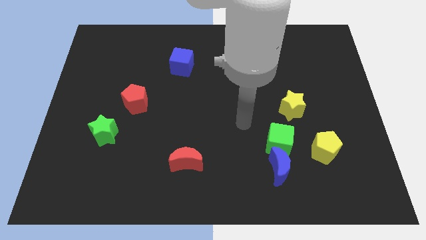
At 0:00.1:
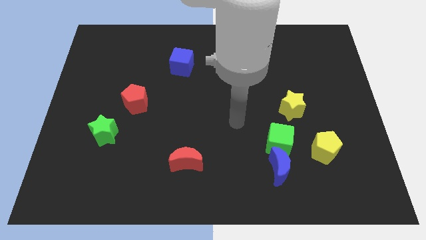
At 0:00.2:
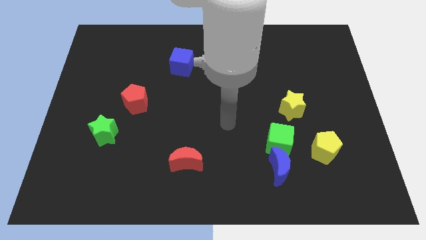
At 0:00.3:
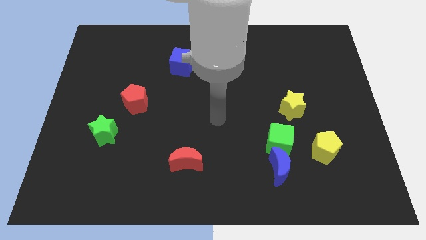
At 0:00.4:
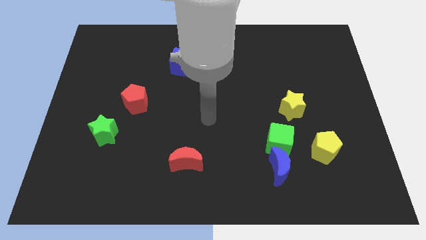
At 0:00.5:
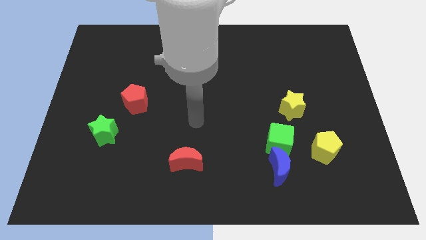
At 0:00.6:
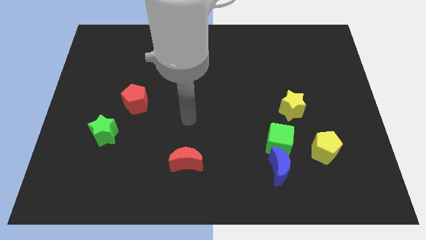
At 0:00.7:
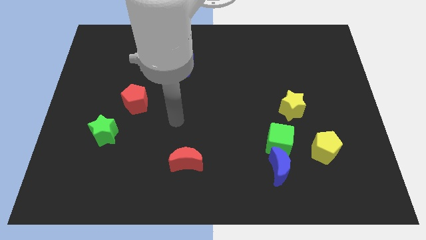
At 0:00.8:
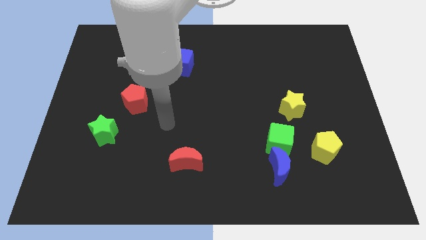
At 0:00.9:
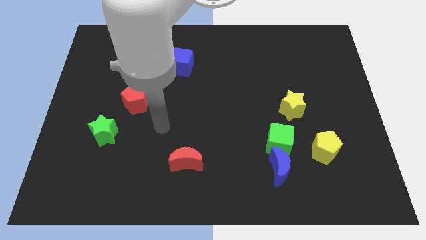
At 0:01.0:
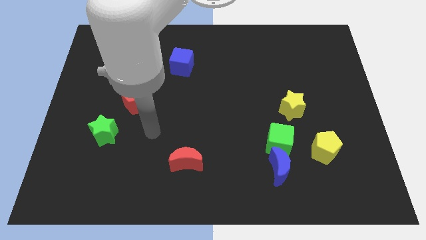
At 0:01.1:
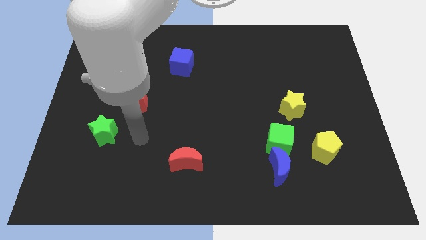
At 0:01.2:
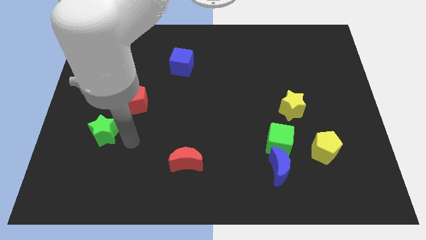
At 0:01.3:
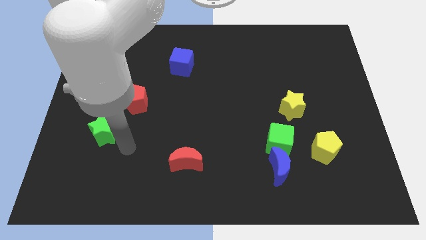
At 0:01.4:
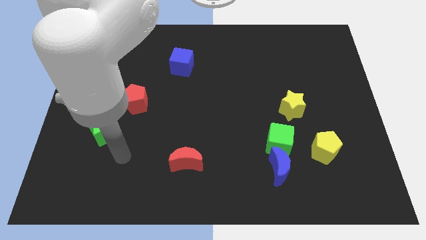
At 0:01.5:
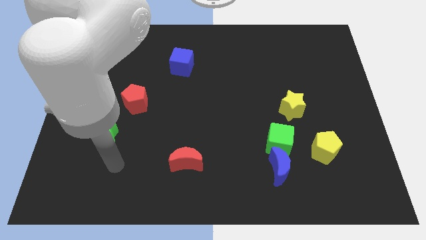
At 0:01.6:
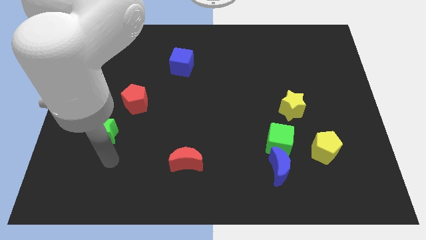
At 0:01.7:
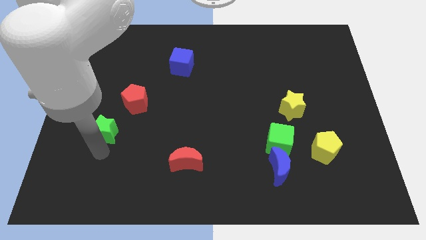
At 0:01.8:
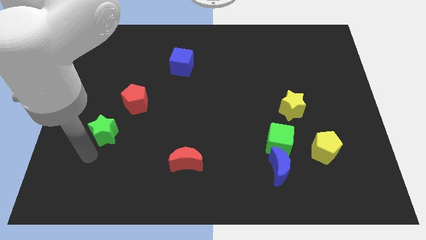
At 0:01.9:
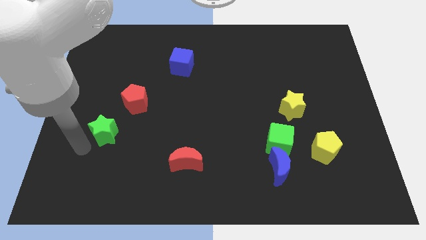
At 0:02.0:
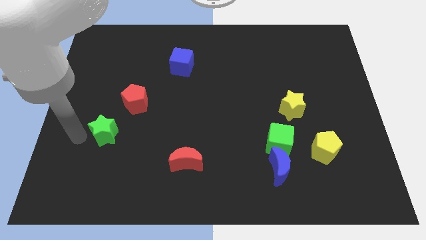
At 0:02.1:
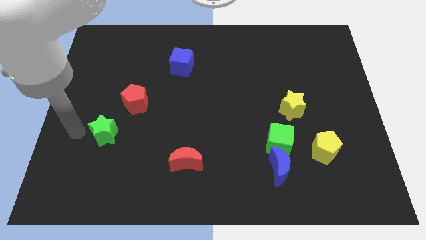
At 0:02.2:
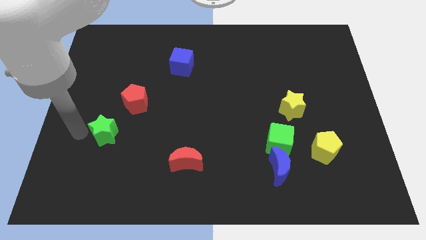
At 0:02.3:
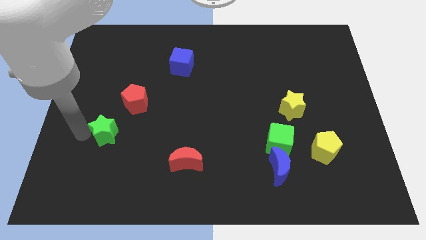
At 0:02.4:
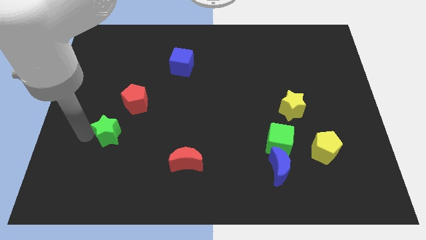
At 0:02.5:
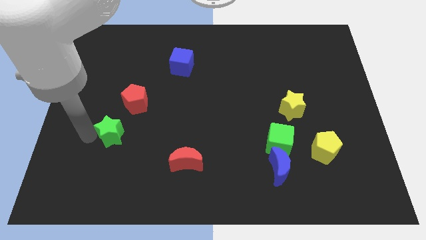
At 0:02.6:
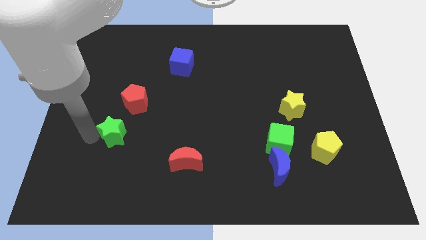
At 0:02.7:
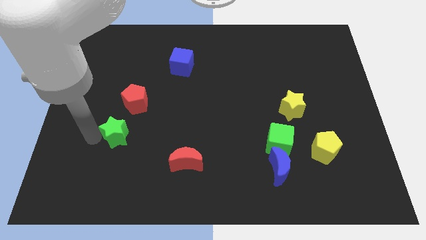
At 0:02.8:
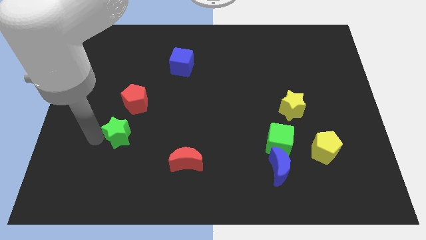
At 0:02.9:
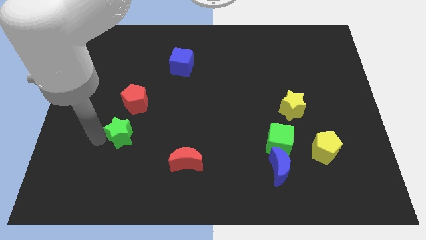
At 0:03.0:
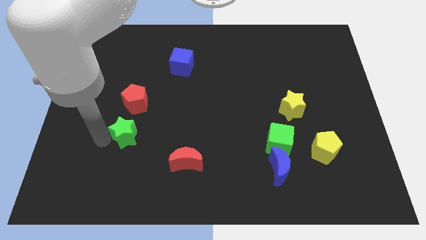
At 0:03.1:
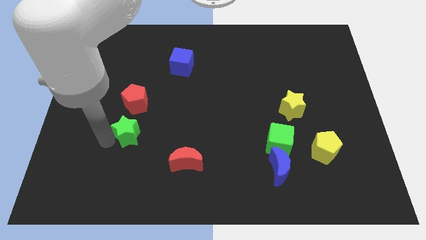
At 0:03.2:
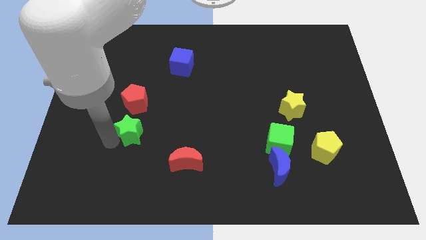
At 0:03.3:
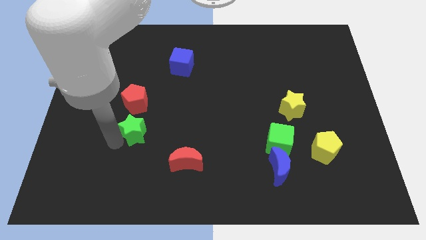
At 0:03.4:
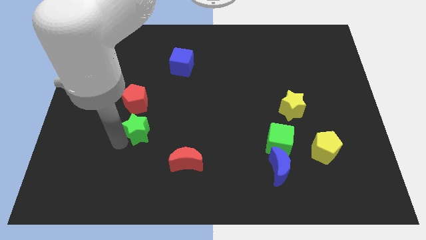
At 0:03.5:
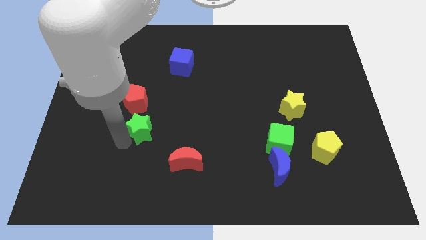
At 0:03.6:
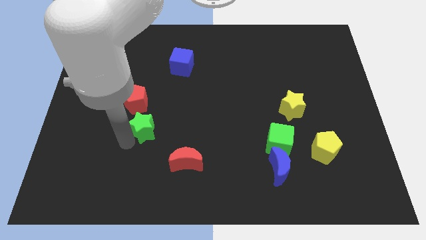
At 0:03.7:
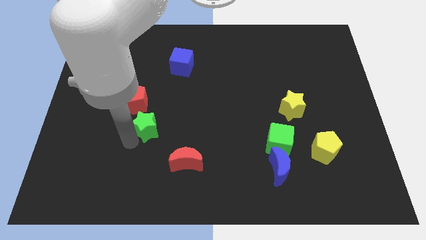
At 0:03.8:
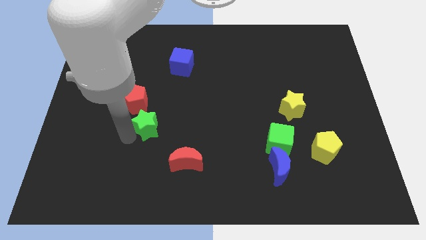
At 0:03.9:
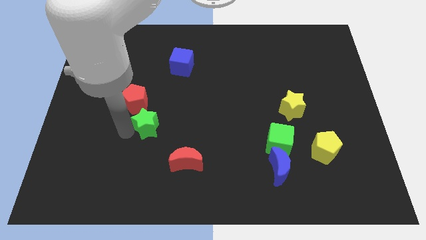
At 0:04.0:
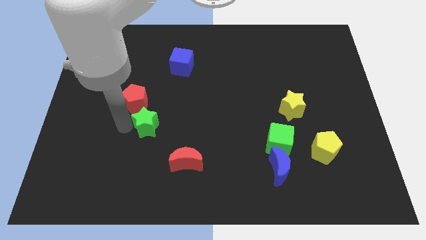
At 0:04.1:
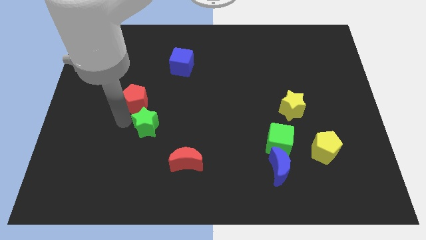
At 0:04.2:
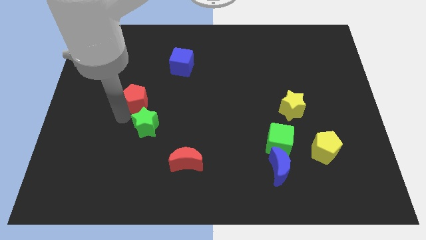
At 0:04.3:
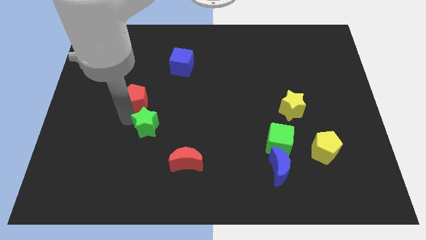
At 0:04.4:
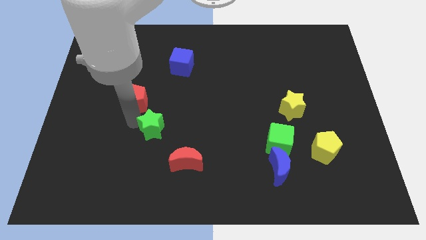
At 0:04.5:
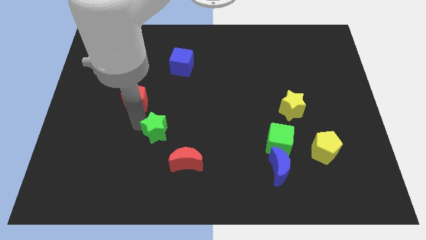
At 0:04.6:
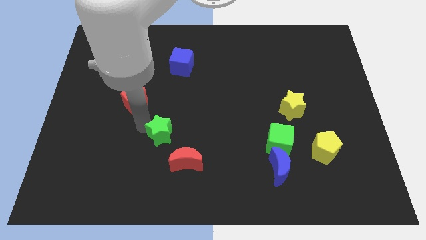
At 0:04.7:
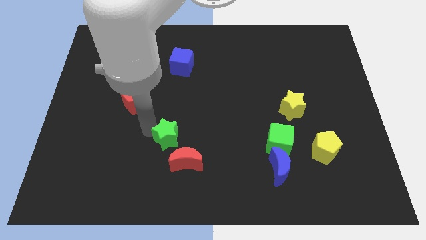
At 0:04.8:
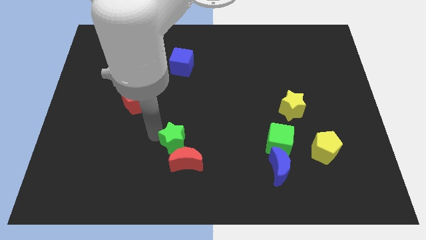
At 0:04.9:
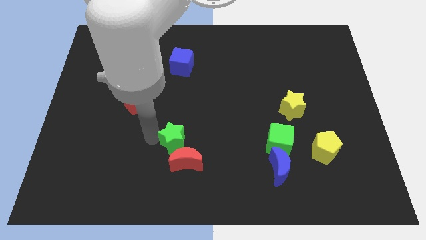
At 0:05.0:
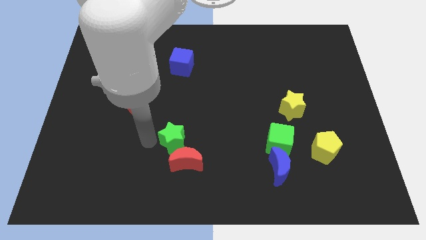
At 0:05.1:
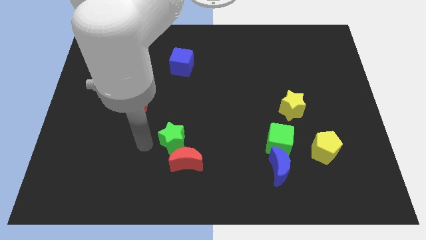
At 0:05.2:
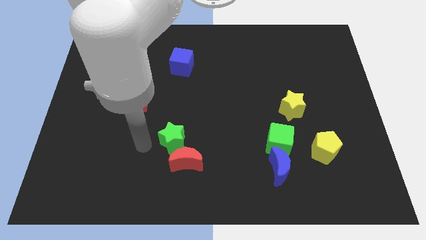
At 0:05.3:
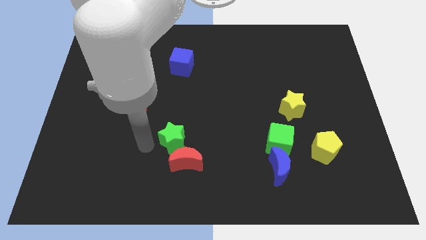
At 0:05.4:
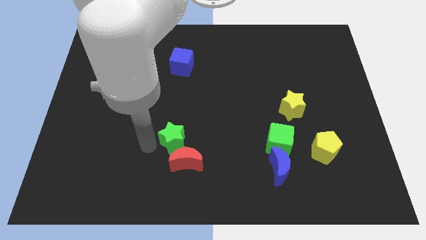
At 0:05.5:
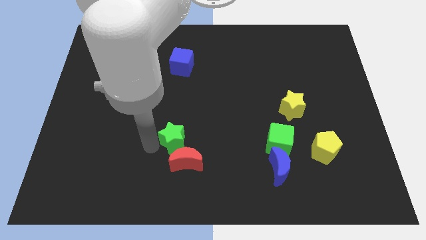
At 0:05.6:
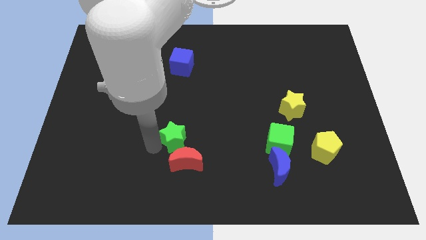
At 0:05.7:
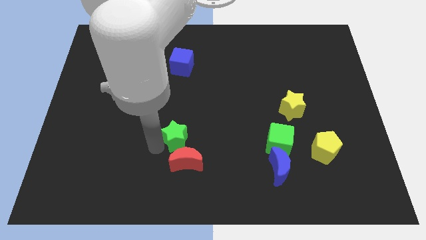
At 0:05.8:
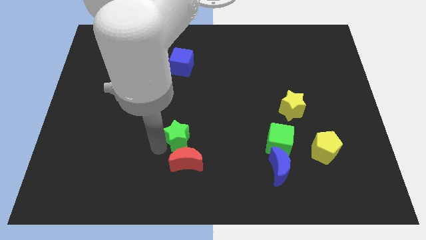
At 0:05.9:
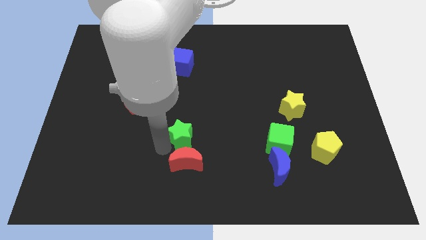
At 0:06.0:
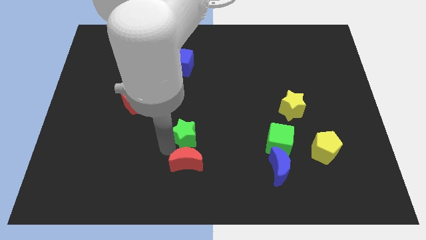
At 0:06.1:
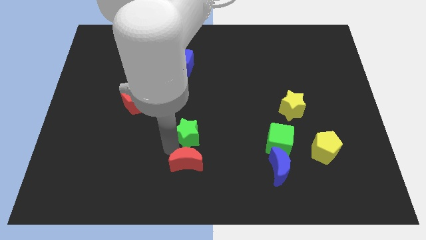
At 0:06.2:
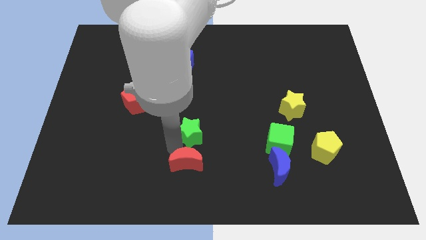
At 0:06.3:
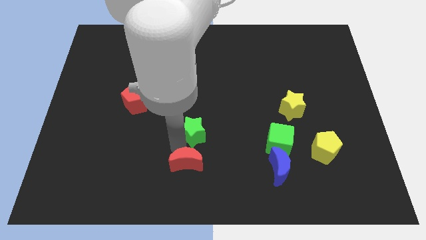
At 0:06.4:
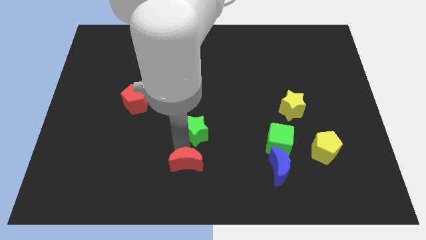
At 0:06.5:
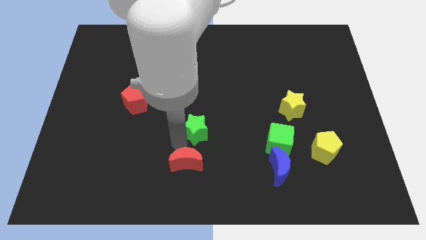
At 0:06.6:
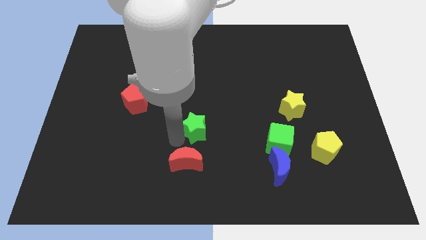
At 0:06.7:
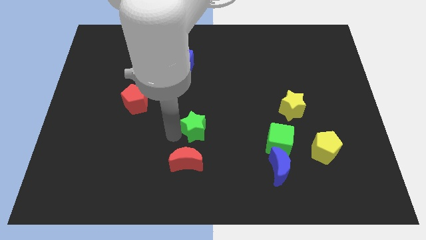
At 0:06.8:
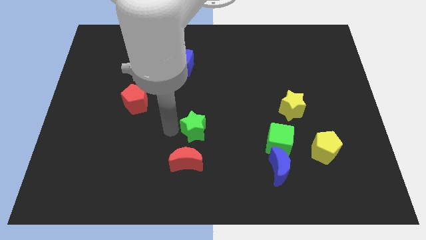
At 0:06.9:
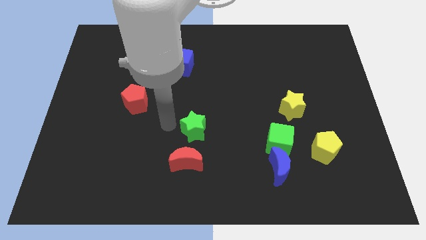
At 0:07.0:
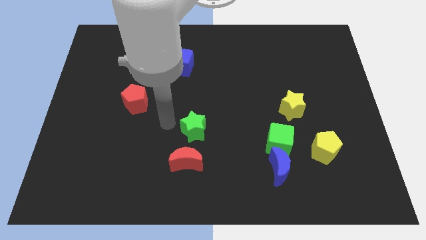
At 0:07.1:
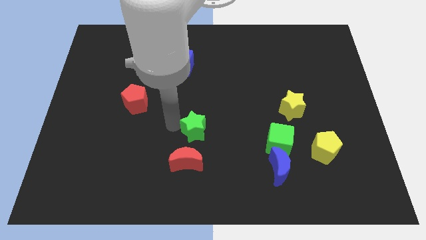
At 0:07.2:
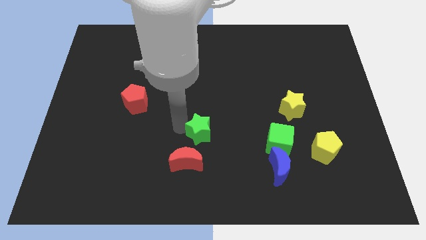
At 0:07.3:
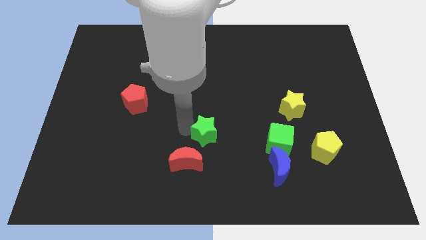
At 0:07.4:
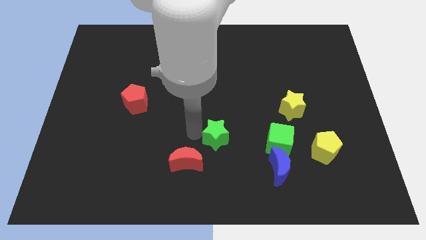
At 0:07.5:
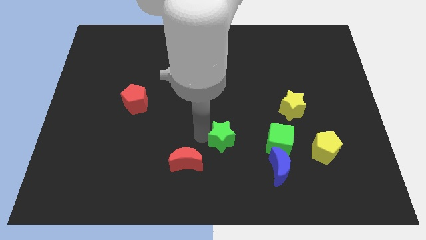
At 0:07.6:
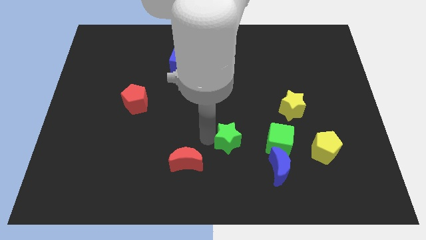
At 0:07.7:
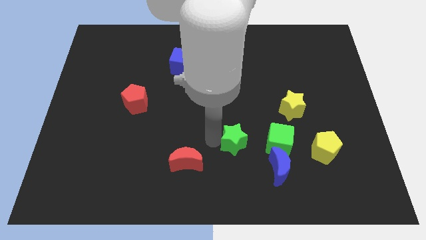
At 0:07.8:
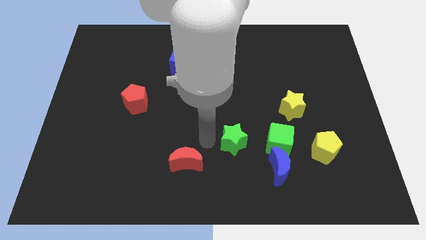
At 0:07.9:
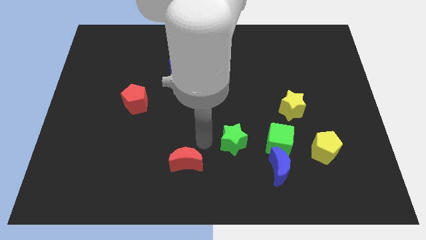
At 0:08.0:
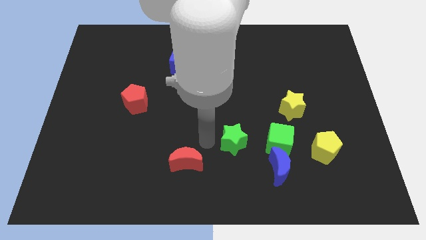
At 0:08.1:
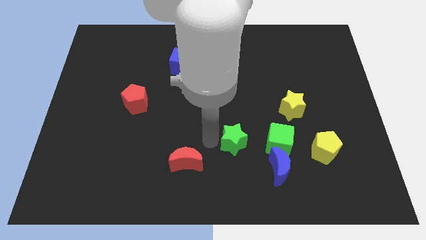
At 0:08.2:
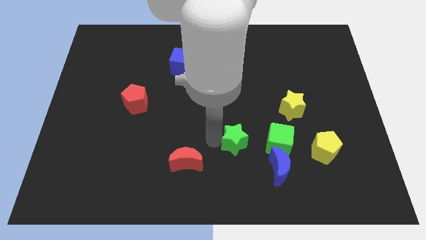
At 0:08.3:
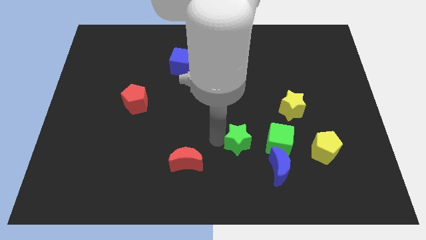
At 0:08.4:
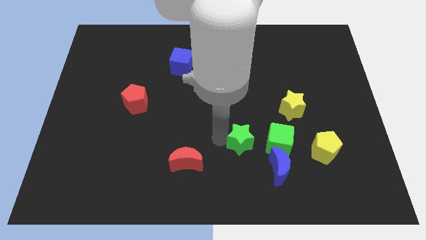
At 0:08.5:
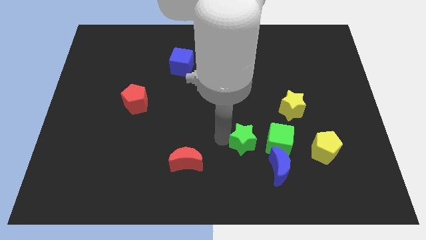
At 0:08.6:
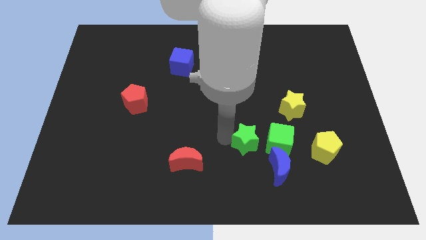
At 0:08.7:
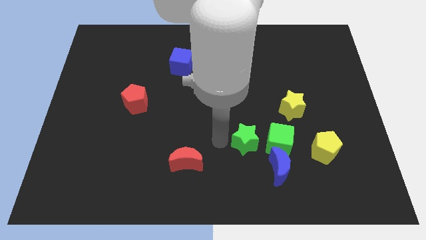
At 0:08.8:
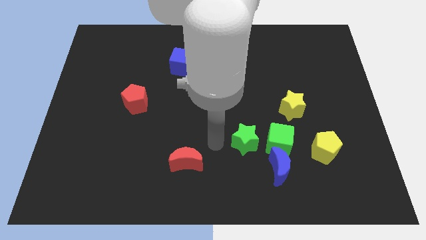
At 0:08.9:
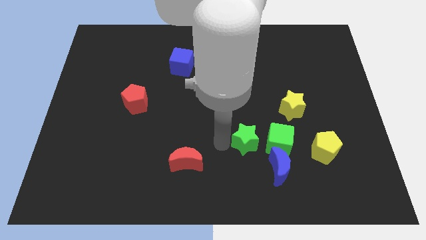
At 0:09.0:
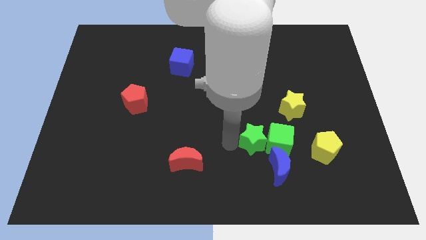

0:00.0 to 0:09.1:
put the green star towards the green cube
